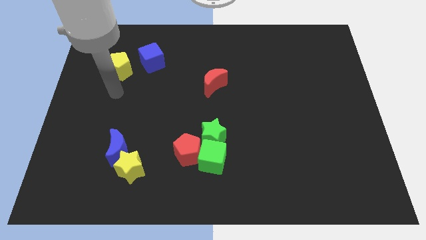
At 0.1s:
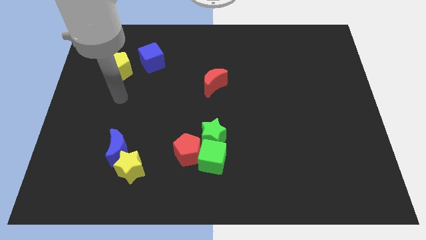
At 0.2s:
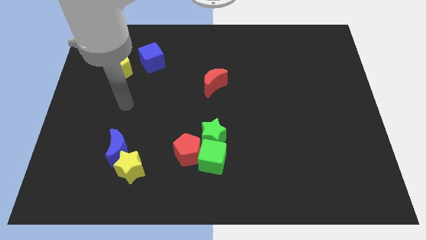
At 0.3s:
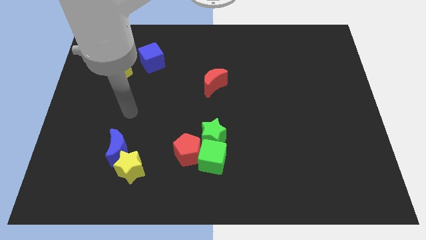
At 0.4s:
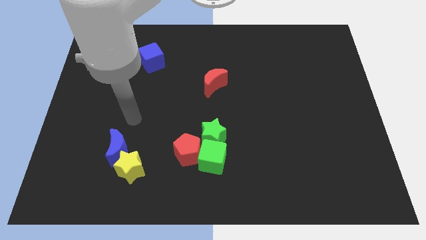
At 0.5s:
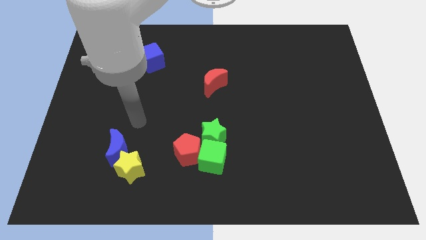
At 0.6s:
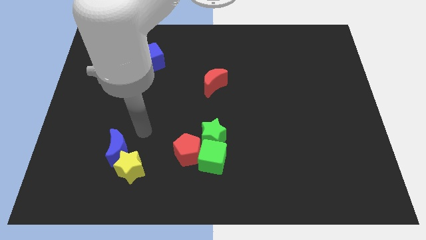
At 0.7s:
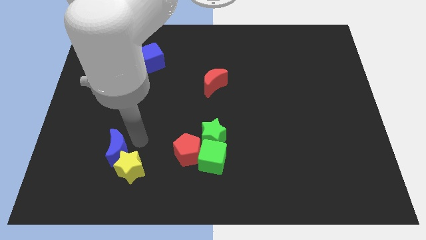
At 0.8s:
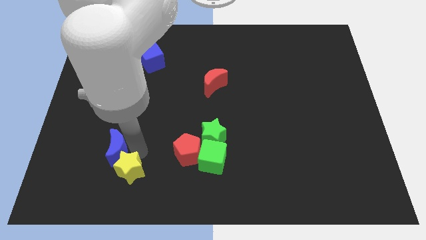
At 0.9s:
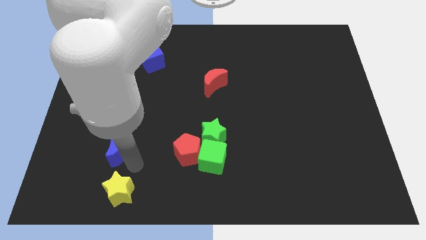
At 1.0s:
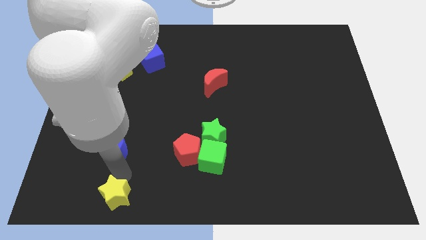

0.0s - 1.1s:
separate the blue moon from the yellow star

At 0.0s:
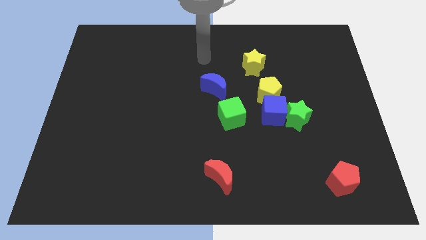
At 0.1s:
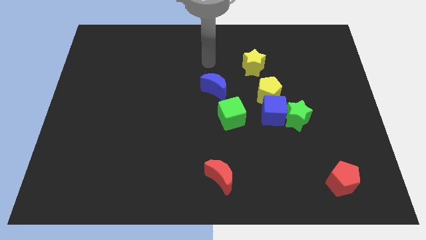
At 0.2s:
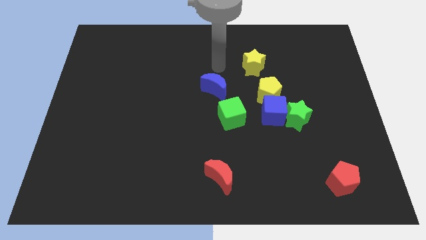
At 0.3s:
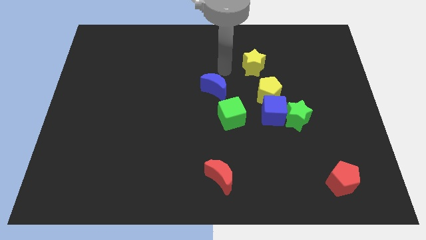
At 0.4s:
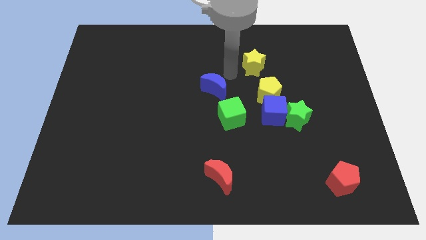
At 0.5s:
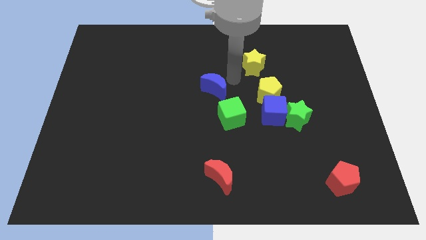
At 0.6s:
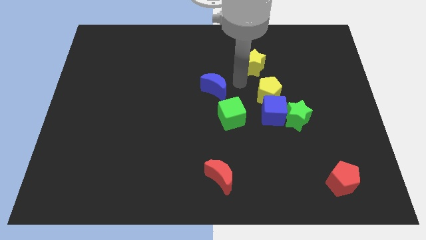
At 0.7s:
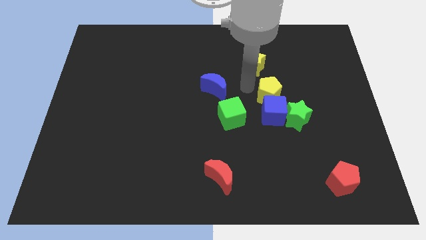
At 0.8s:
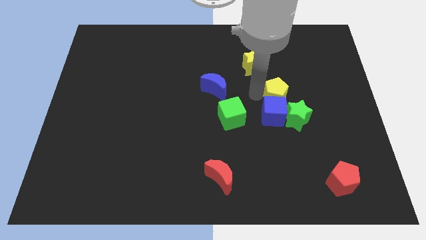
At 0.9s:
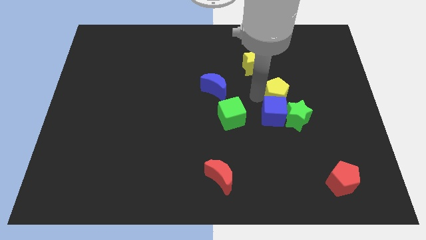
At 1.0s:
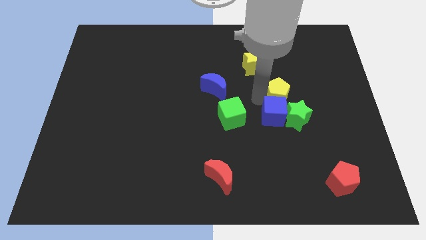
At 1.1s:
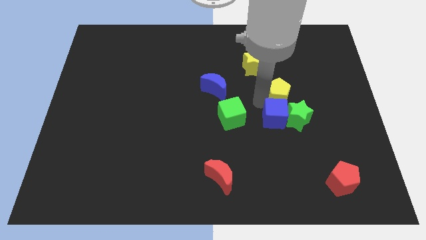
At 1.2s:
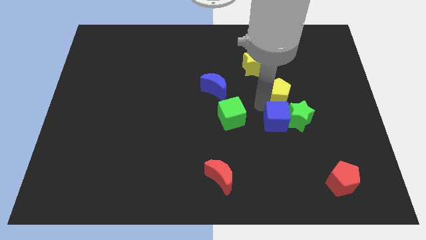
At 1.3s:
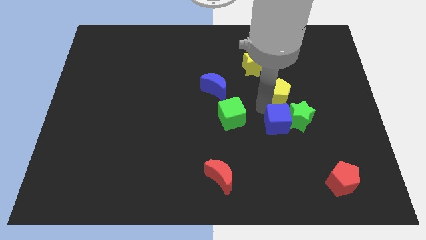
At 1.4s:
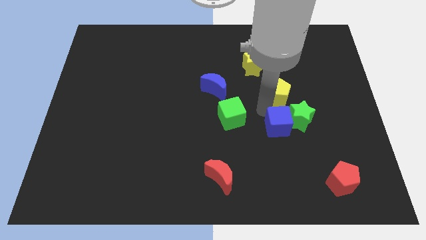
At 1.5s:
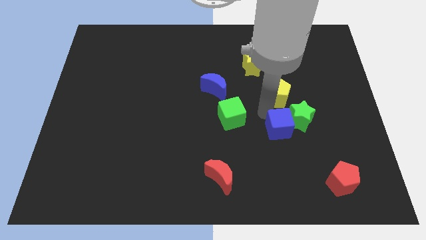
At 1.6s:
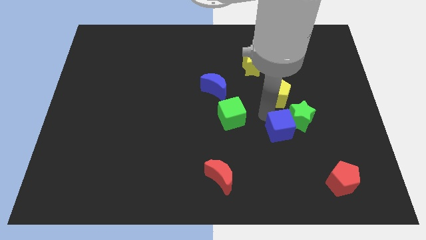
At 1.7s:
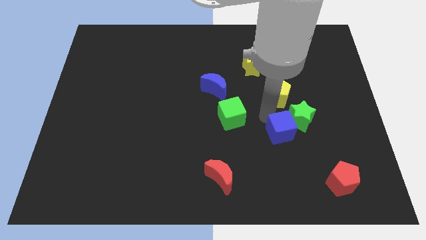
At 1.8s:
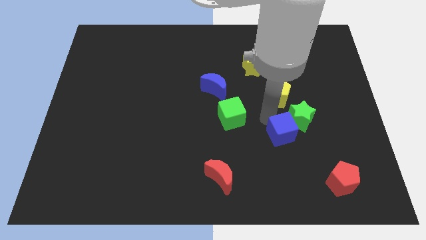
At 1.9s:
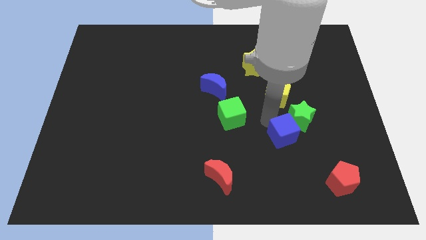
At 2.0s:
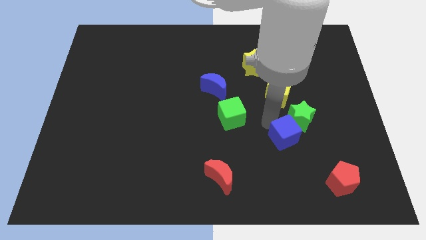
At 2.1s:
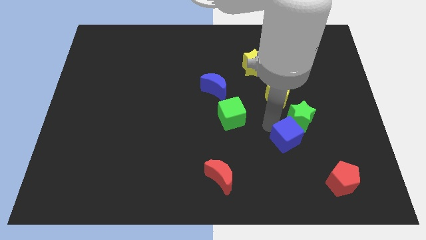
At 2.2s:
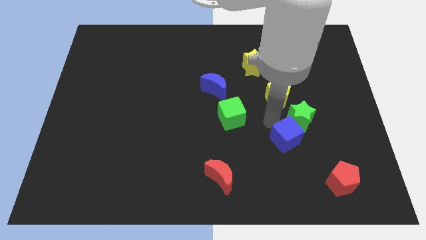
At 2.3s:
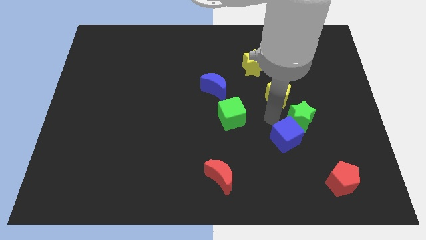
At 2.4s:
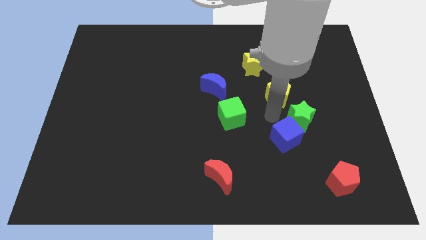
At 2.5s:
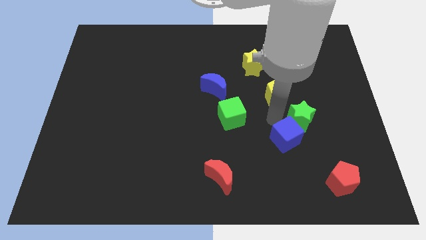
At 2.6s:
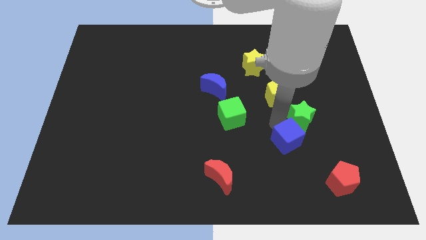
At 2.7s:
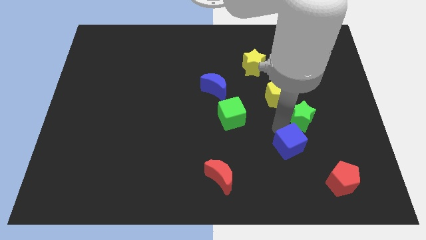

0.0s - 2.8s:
separate the blue cube from the green star, yellow pentagon, and green cube

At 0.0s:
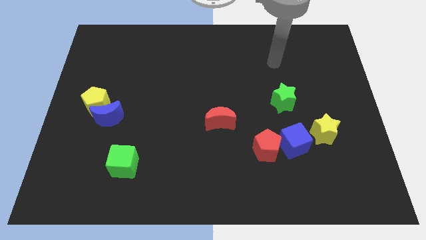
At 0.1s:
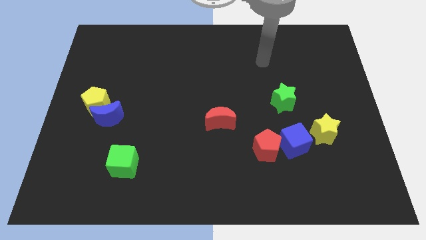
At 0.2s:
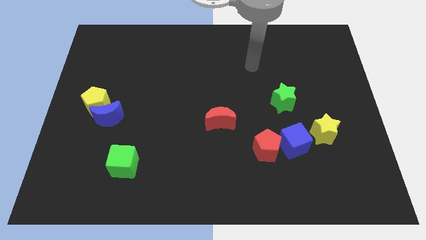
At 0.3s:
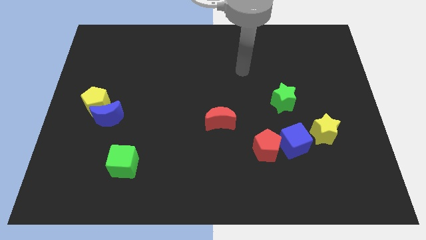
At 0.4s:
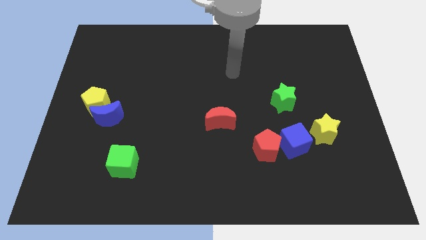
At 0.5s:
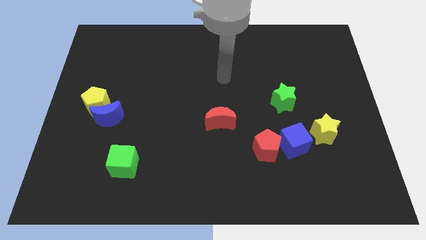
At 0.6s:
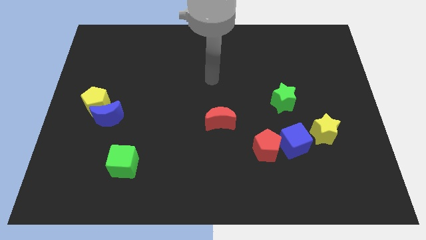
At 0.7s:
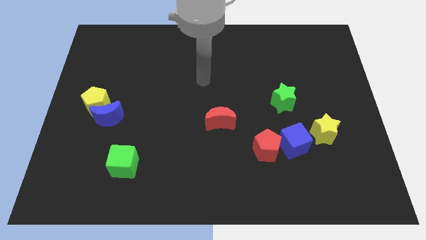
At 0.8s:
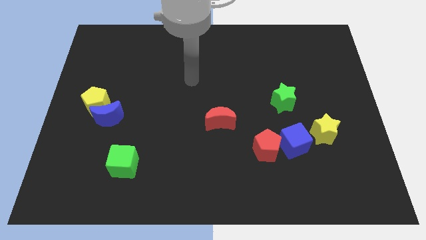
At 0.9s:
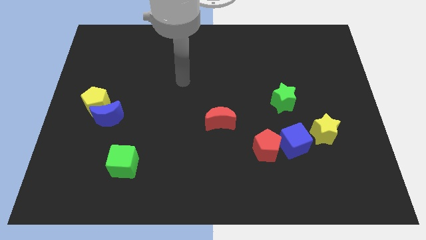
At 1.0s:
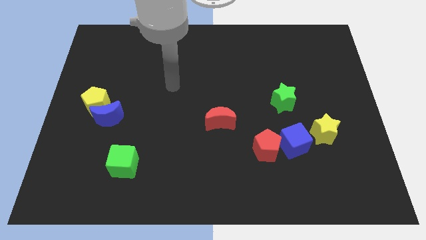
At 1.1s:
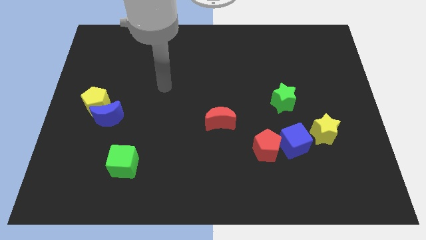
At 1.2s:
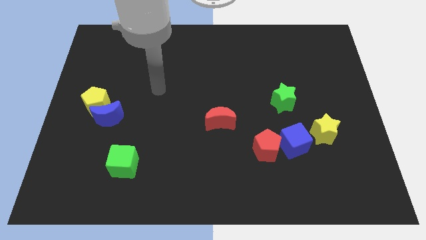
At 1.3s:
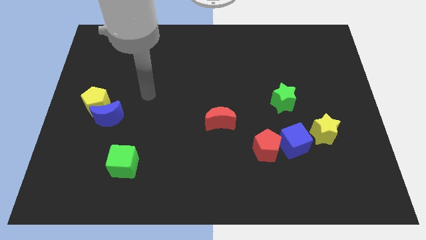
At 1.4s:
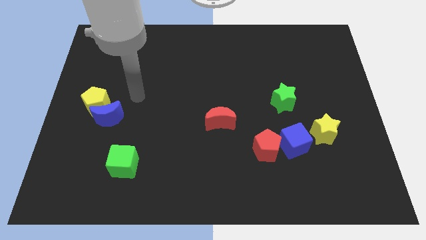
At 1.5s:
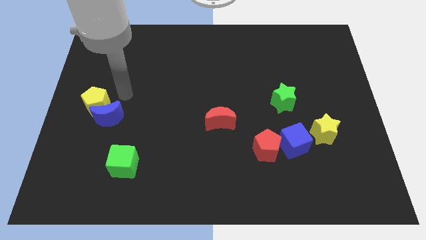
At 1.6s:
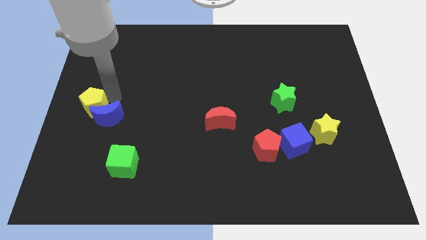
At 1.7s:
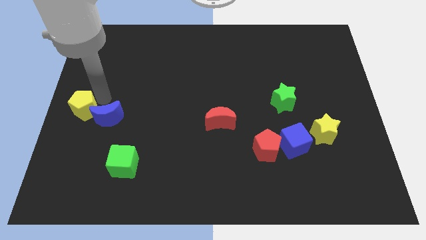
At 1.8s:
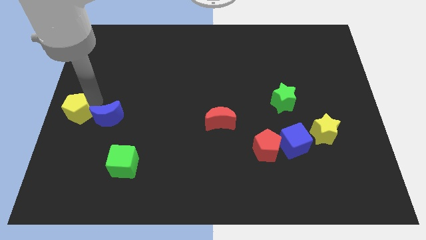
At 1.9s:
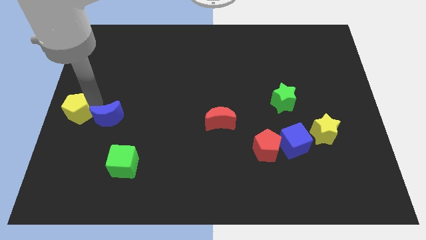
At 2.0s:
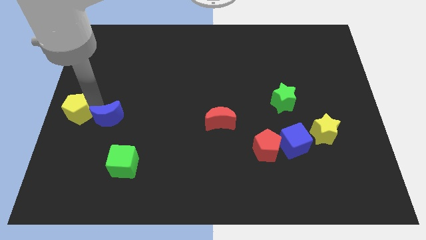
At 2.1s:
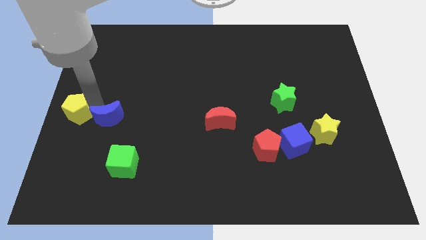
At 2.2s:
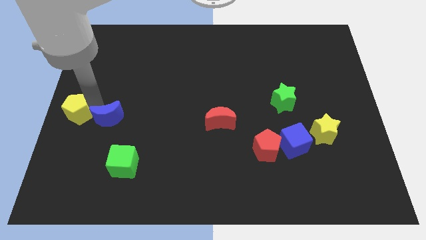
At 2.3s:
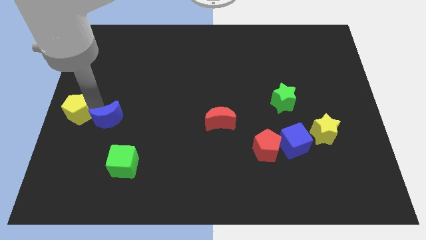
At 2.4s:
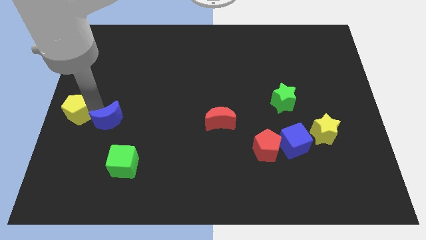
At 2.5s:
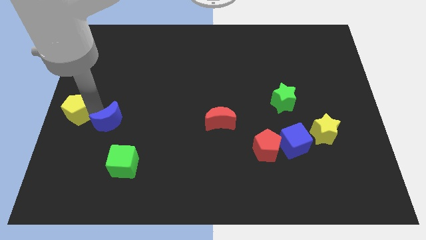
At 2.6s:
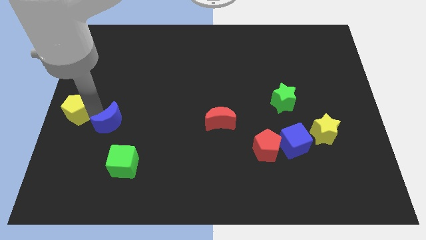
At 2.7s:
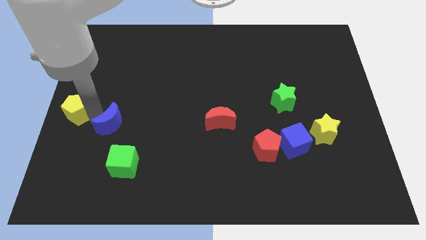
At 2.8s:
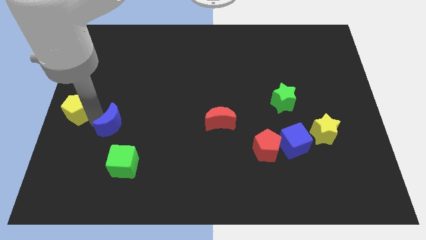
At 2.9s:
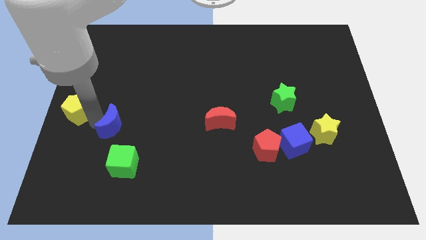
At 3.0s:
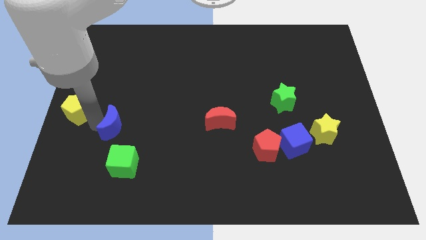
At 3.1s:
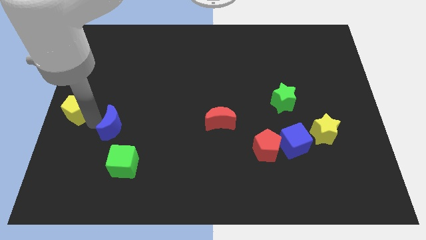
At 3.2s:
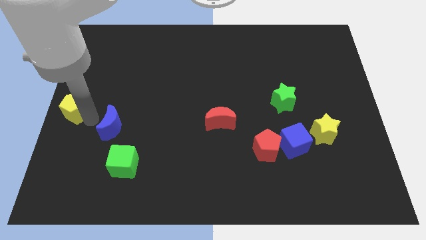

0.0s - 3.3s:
move the blue moon away from the yellow pentagon

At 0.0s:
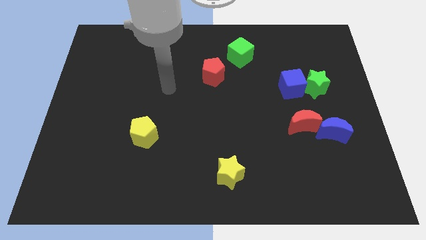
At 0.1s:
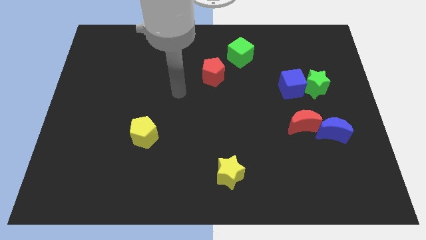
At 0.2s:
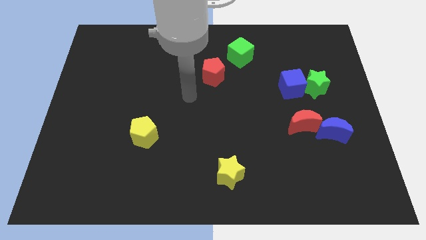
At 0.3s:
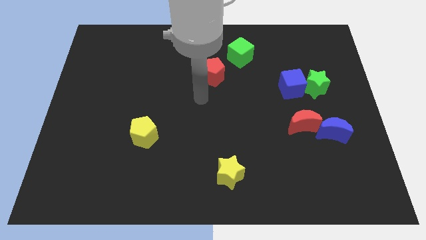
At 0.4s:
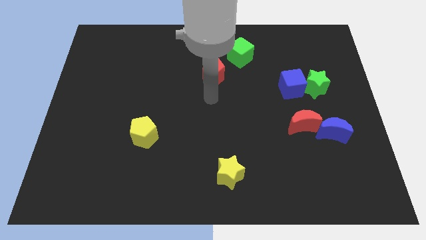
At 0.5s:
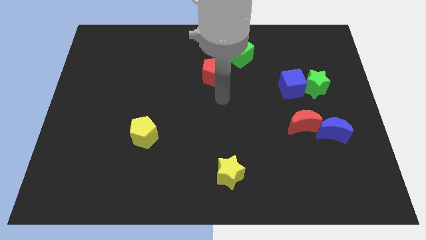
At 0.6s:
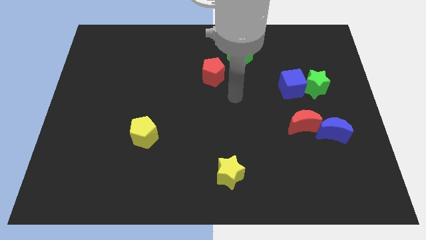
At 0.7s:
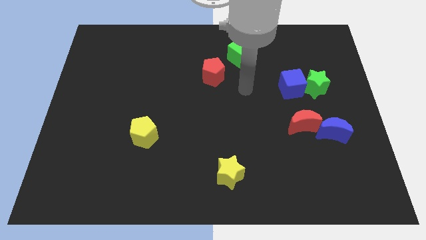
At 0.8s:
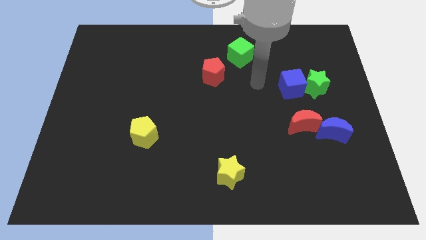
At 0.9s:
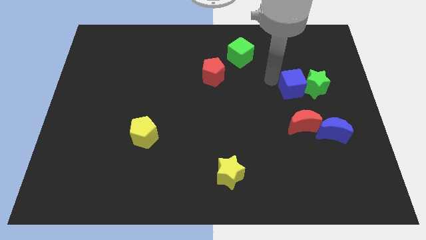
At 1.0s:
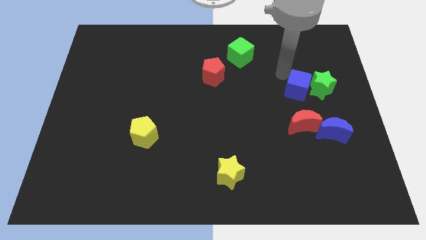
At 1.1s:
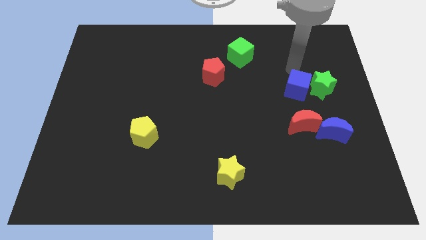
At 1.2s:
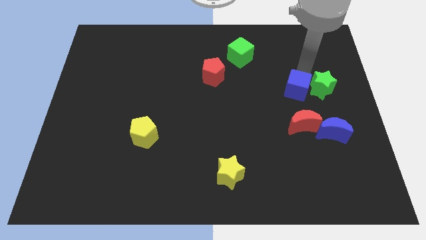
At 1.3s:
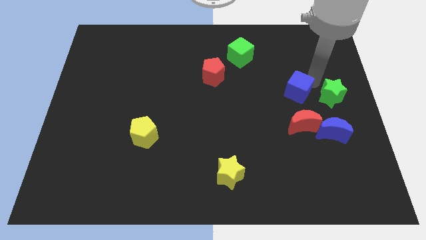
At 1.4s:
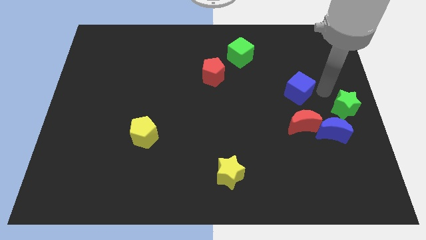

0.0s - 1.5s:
move the blue cube away from the green star

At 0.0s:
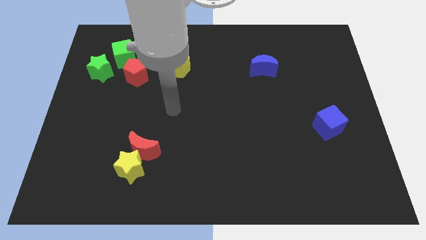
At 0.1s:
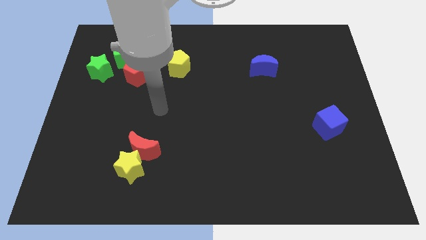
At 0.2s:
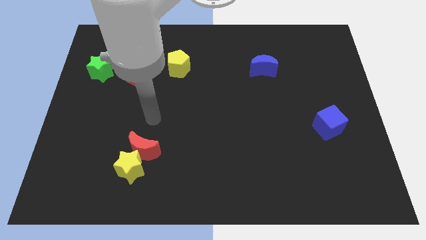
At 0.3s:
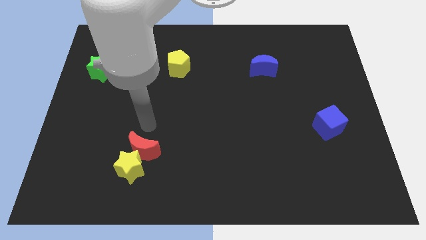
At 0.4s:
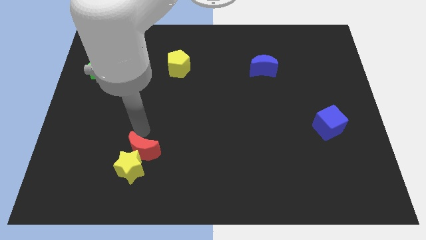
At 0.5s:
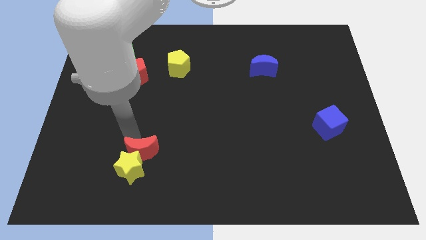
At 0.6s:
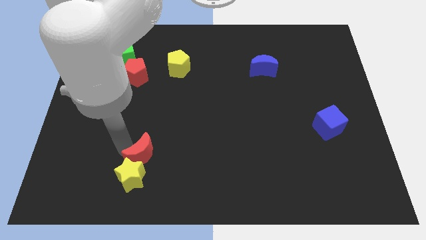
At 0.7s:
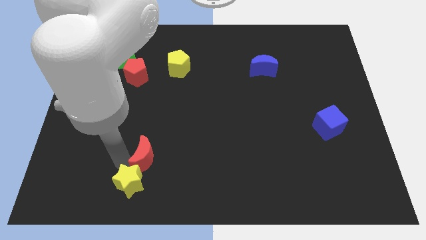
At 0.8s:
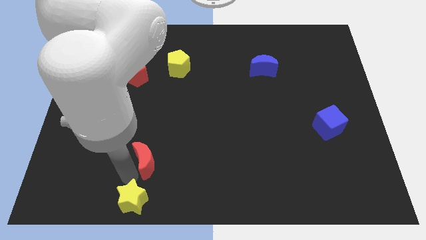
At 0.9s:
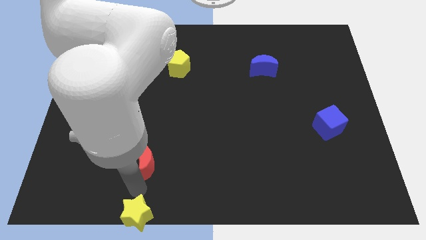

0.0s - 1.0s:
separate the red moon from the yellow star
